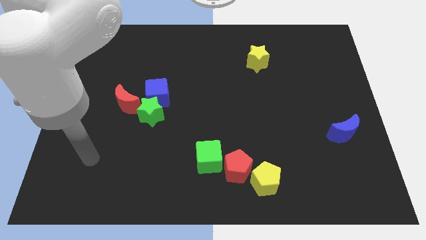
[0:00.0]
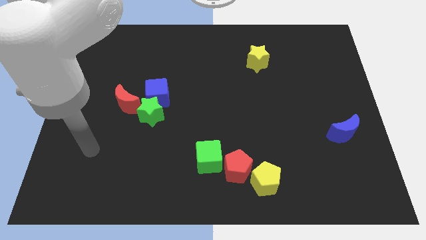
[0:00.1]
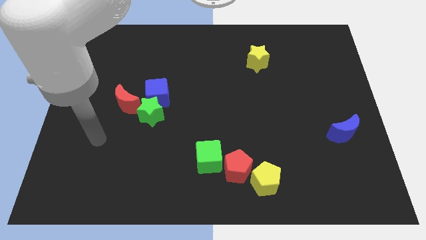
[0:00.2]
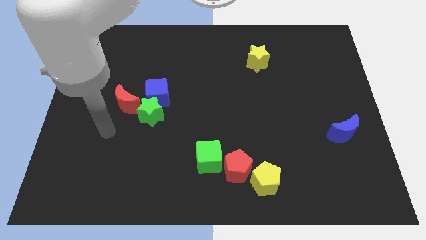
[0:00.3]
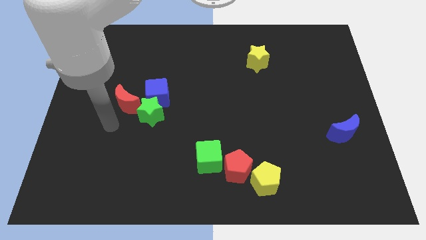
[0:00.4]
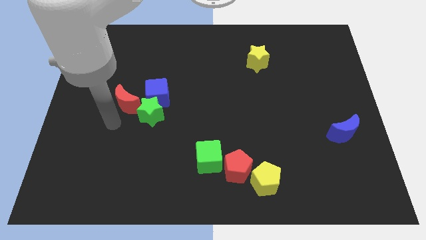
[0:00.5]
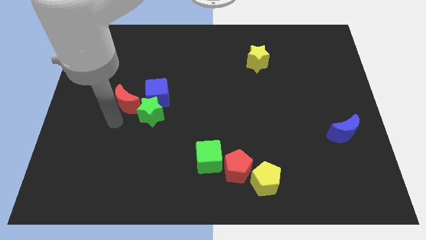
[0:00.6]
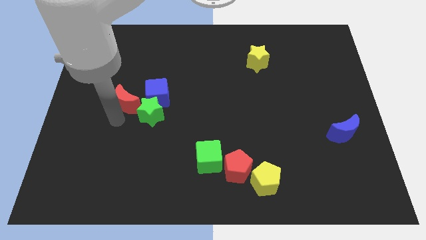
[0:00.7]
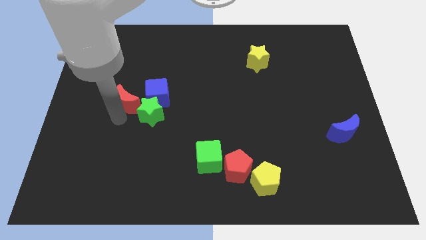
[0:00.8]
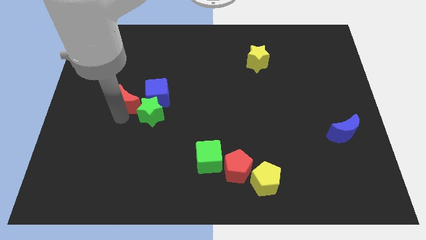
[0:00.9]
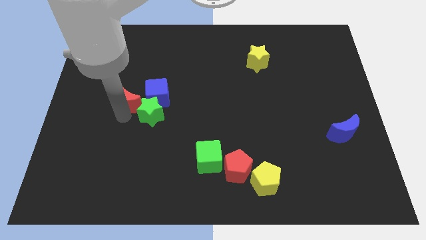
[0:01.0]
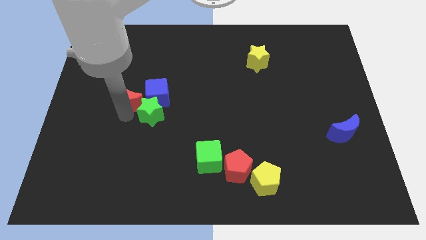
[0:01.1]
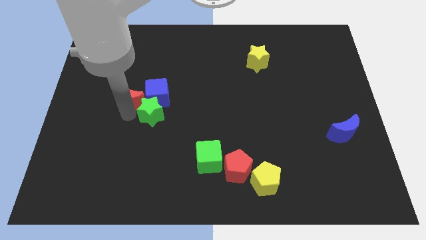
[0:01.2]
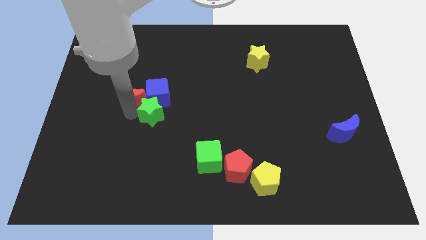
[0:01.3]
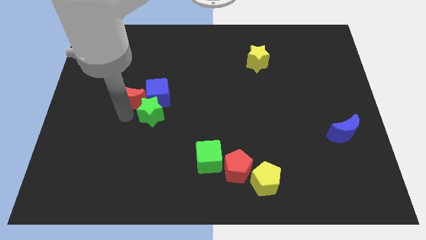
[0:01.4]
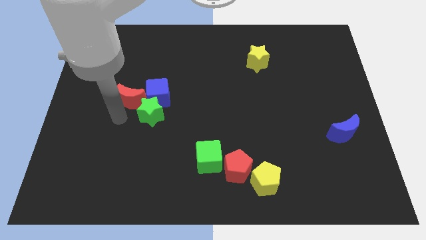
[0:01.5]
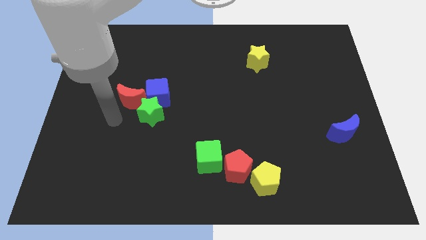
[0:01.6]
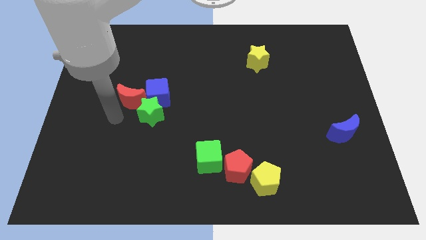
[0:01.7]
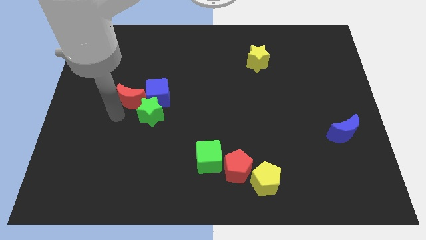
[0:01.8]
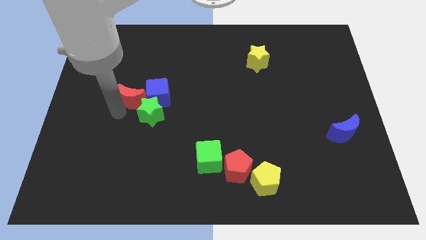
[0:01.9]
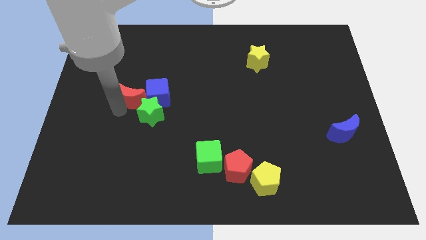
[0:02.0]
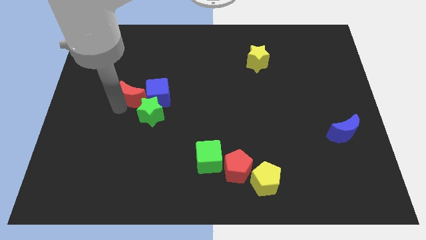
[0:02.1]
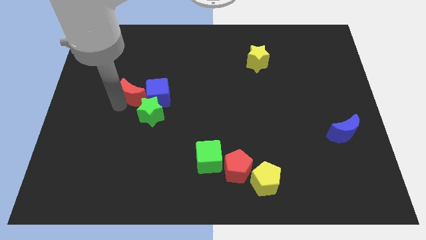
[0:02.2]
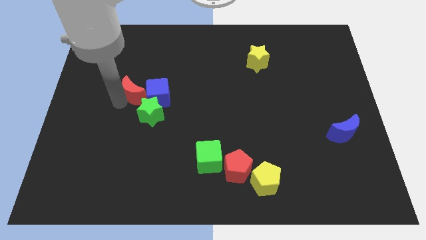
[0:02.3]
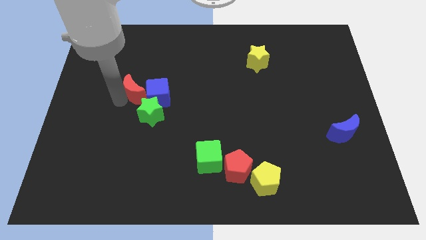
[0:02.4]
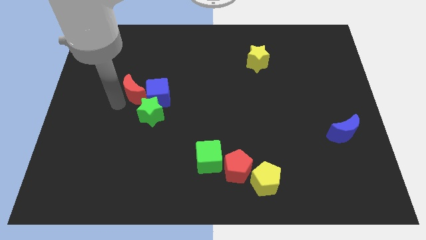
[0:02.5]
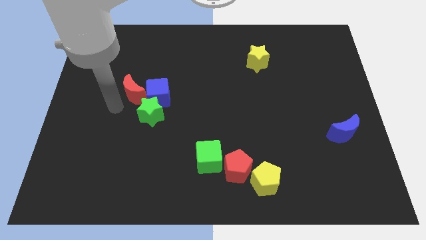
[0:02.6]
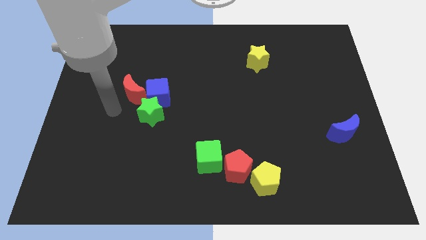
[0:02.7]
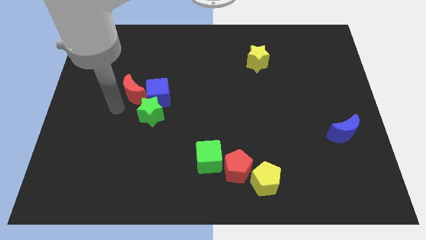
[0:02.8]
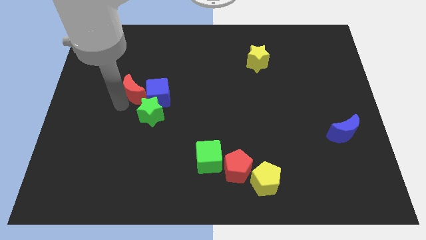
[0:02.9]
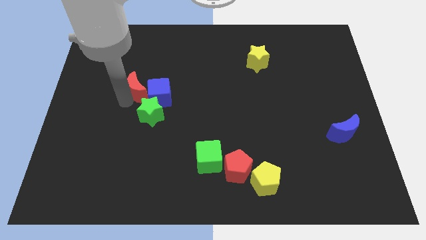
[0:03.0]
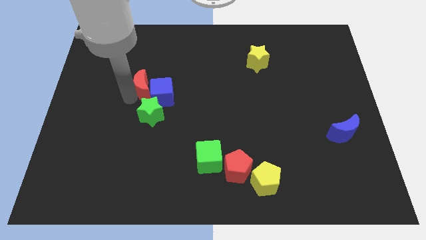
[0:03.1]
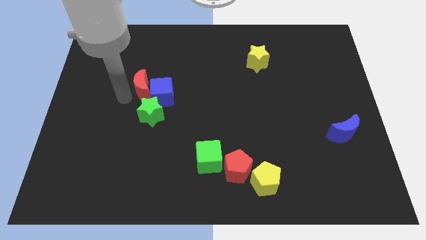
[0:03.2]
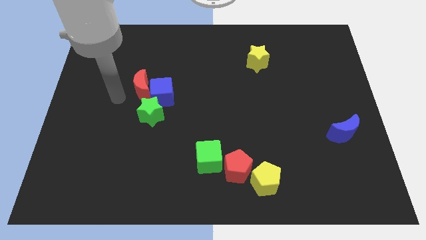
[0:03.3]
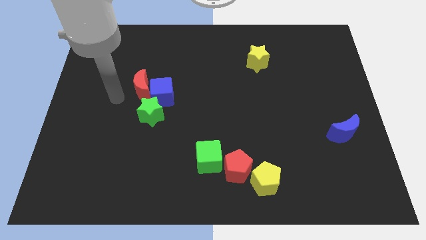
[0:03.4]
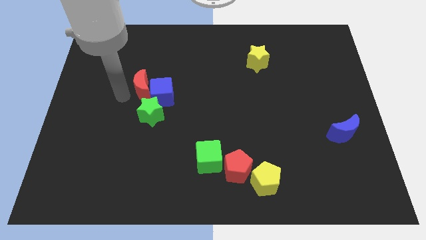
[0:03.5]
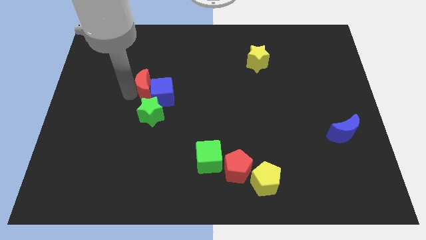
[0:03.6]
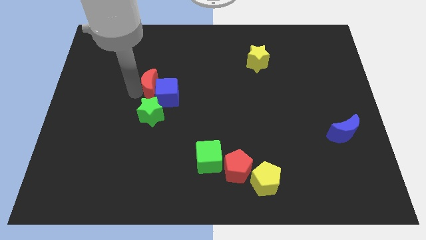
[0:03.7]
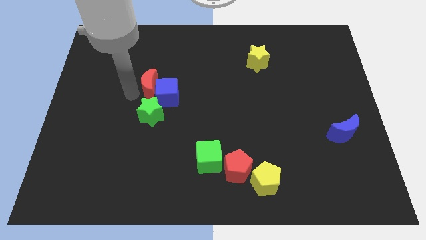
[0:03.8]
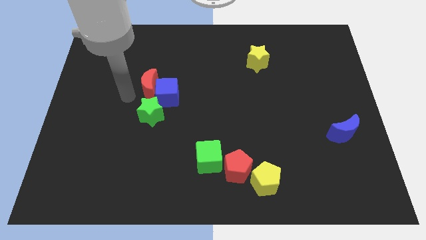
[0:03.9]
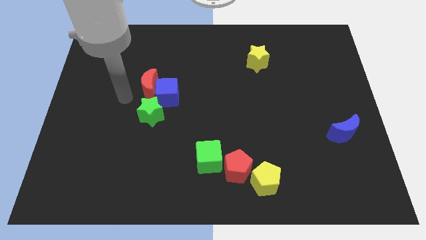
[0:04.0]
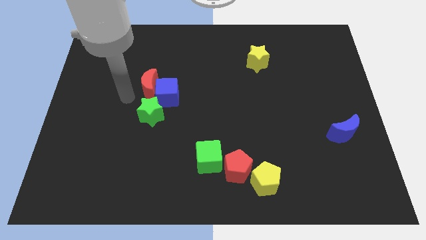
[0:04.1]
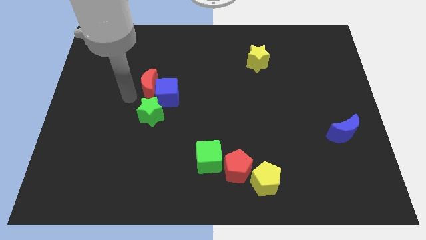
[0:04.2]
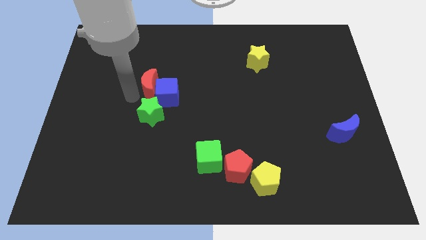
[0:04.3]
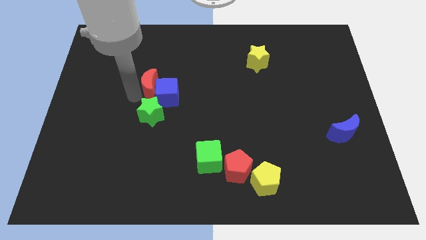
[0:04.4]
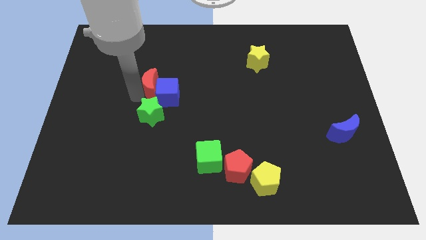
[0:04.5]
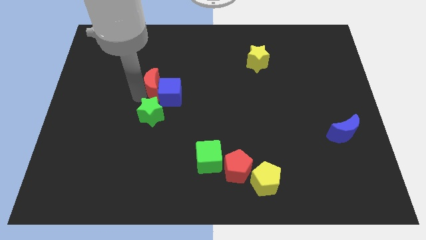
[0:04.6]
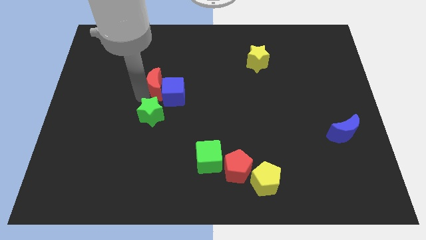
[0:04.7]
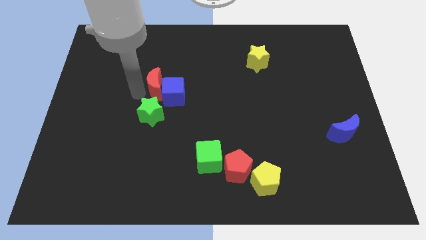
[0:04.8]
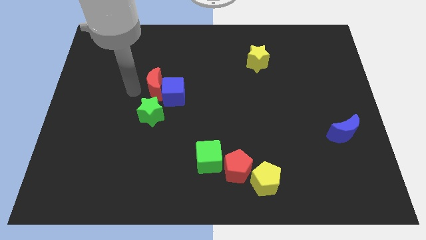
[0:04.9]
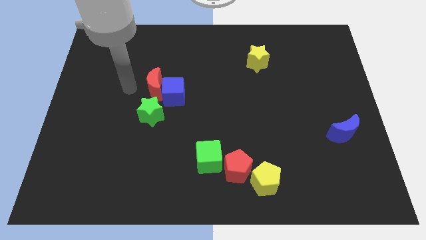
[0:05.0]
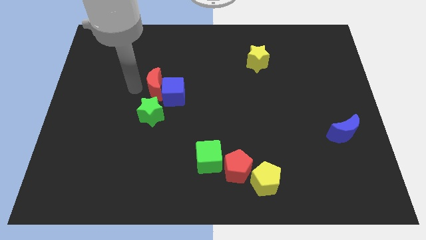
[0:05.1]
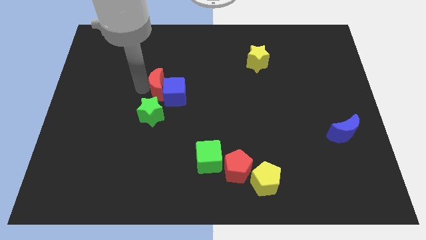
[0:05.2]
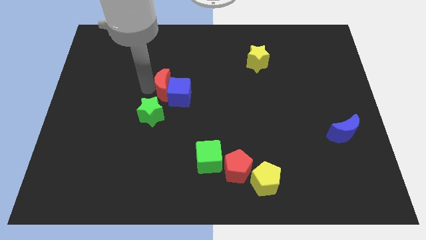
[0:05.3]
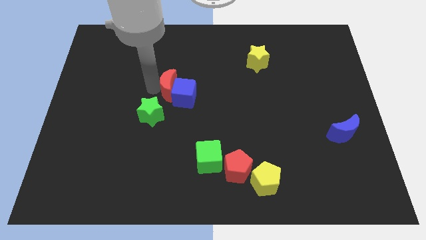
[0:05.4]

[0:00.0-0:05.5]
push the red moon to the middle
